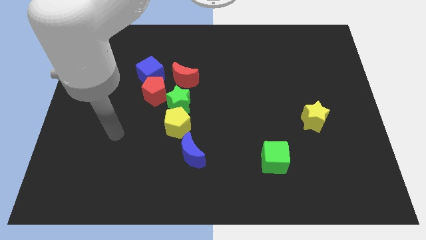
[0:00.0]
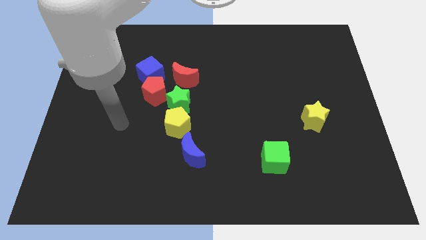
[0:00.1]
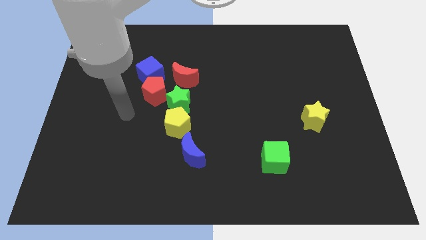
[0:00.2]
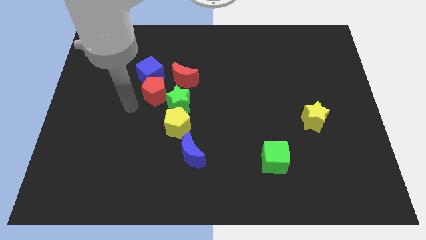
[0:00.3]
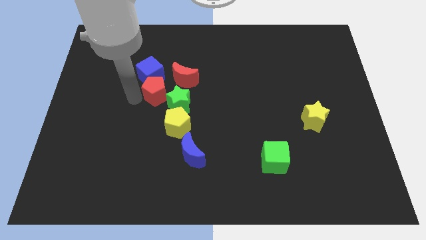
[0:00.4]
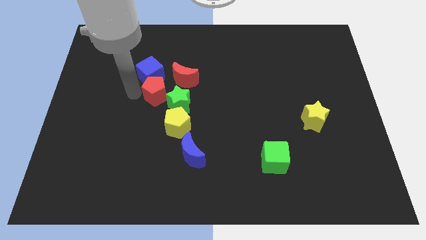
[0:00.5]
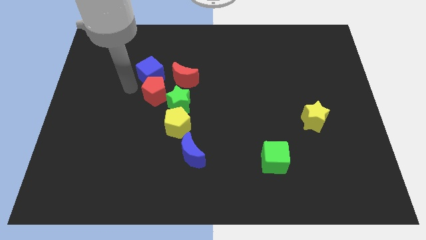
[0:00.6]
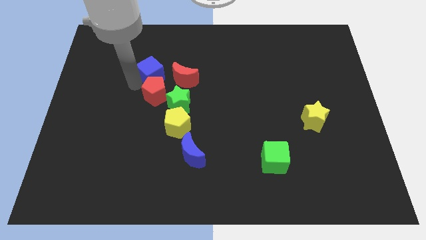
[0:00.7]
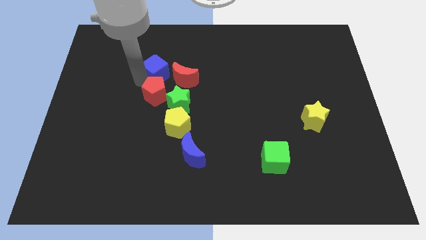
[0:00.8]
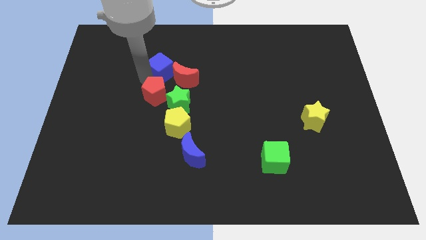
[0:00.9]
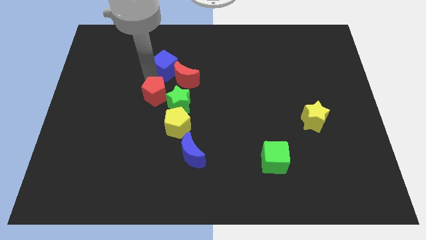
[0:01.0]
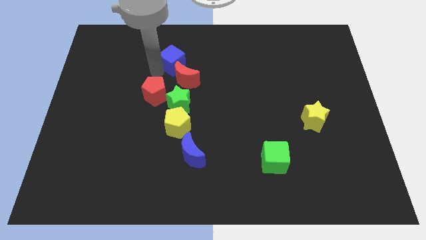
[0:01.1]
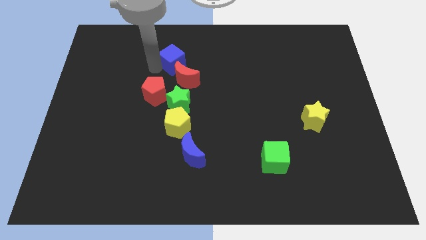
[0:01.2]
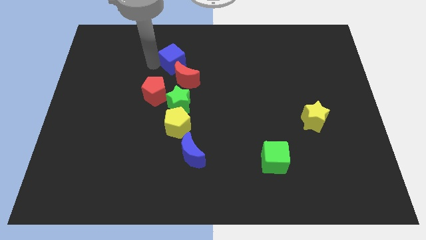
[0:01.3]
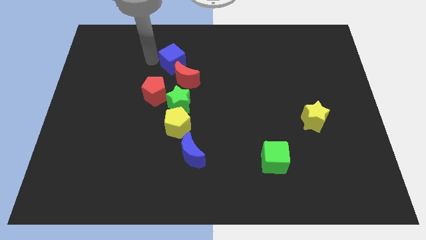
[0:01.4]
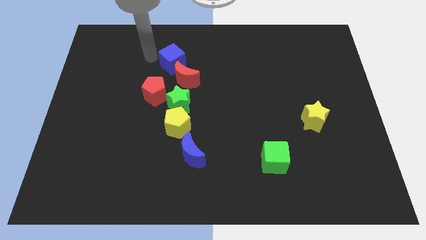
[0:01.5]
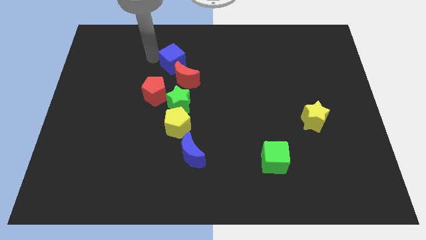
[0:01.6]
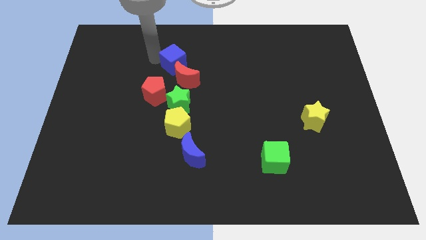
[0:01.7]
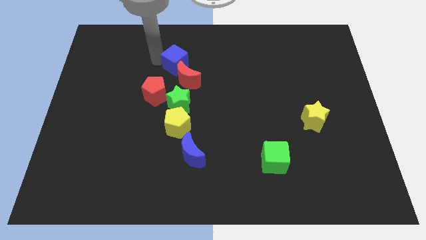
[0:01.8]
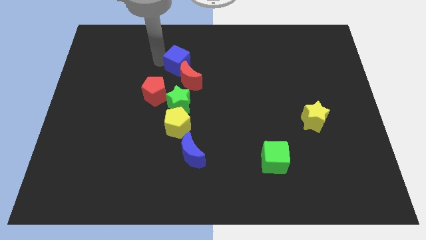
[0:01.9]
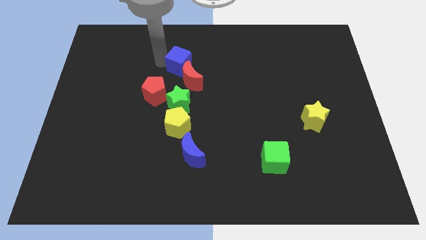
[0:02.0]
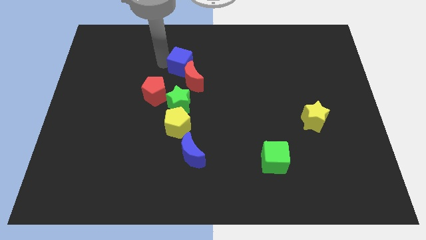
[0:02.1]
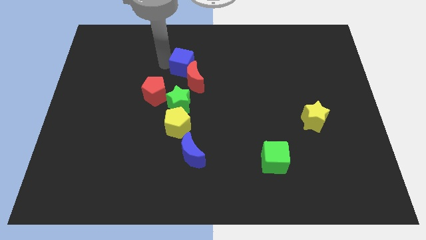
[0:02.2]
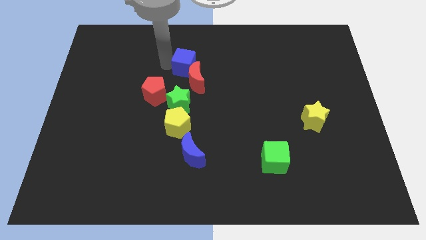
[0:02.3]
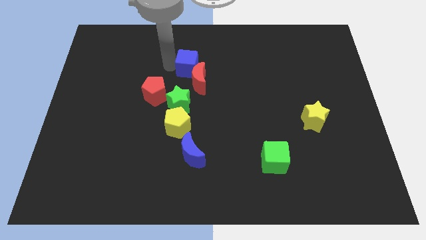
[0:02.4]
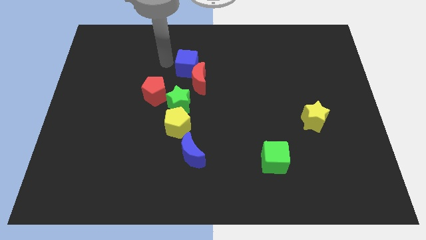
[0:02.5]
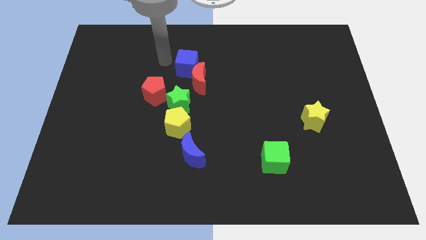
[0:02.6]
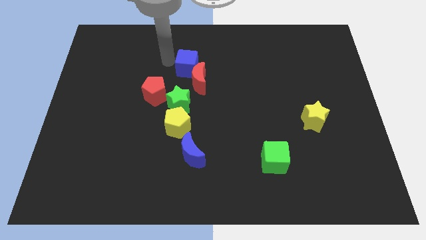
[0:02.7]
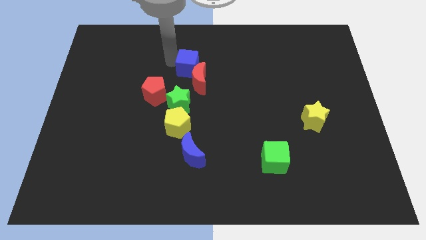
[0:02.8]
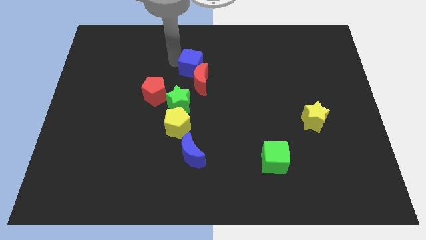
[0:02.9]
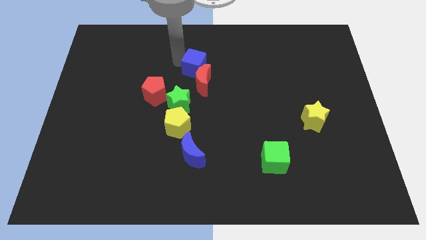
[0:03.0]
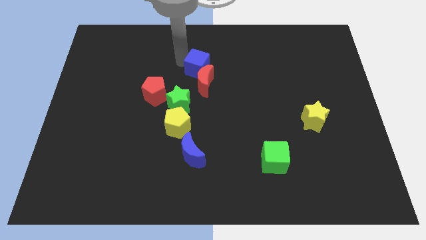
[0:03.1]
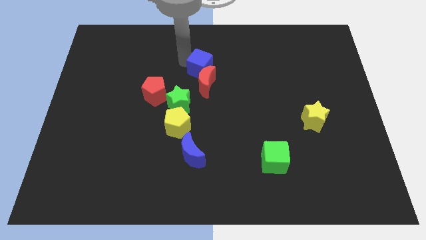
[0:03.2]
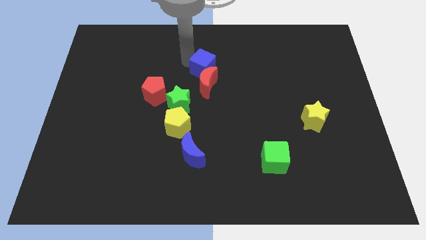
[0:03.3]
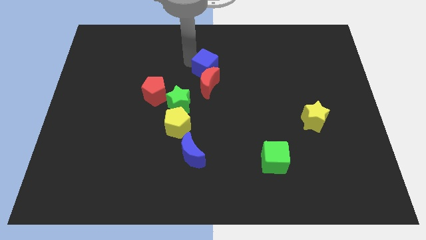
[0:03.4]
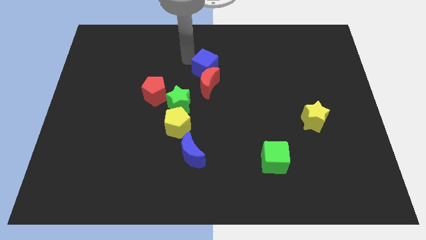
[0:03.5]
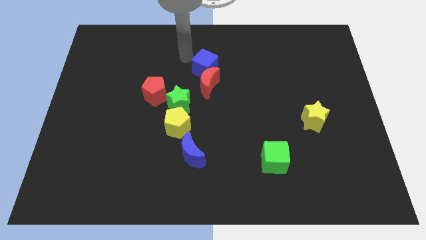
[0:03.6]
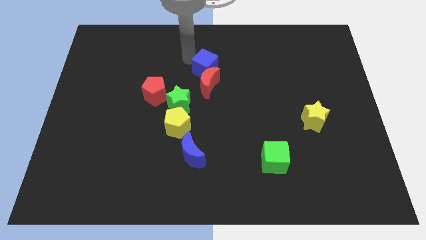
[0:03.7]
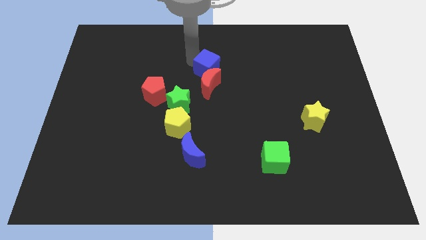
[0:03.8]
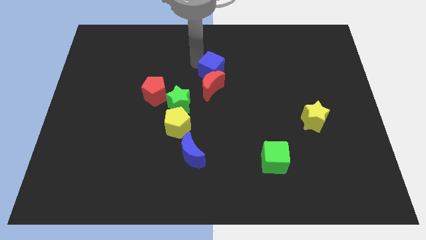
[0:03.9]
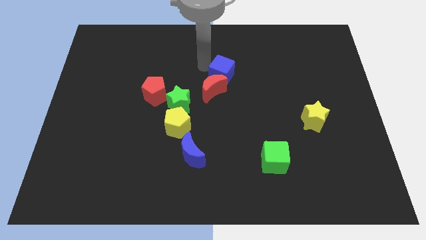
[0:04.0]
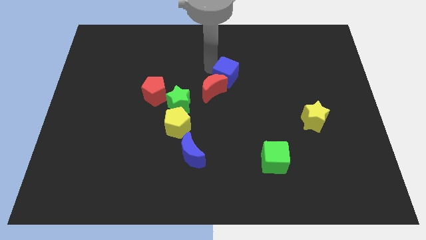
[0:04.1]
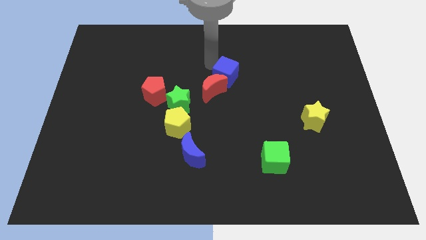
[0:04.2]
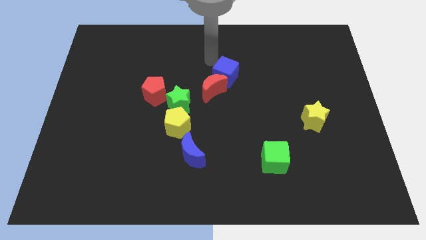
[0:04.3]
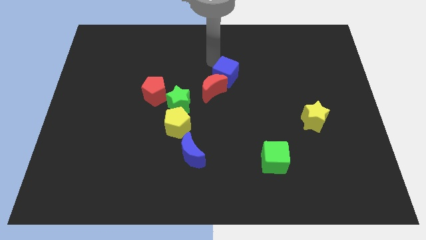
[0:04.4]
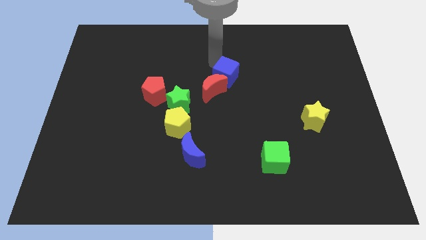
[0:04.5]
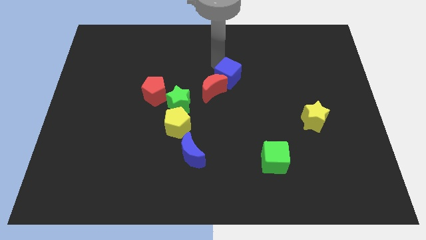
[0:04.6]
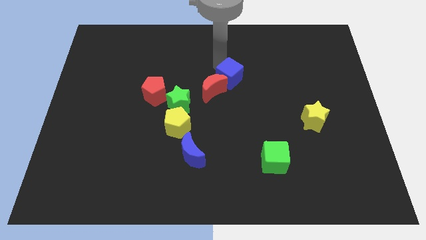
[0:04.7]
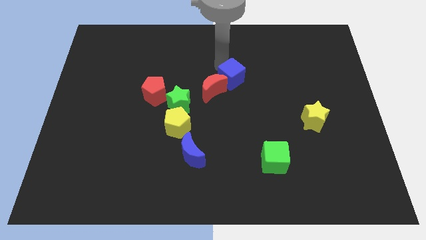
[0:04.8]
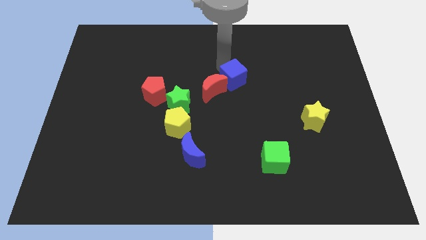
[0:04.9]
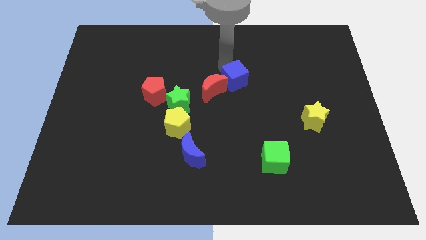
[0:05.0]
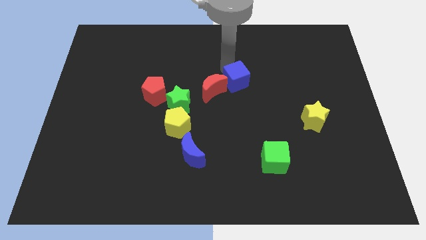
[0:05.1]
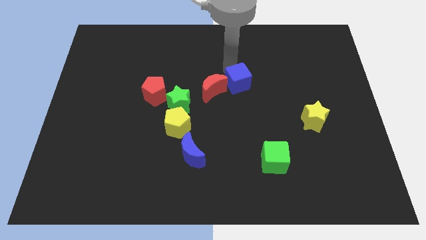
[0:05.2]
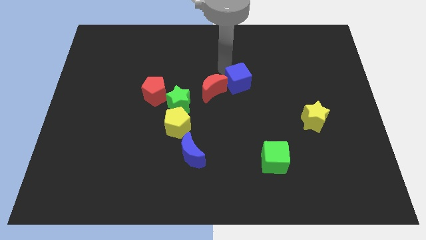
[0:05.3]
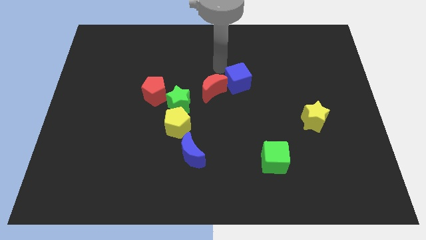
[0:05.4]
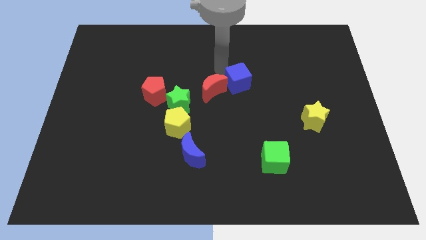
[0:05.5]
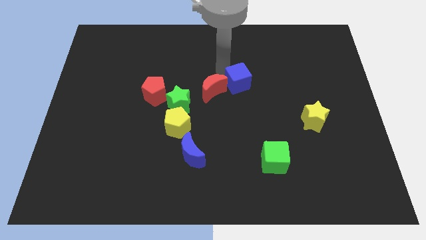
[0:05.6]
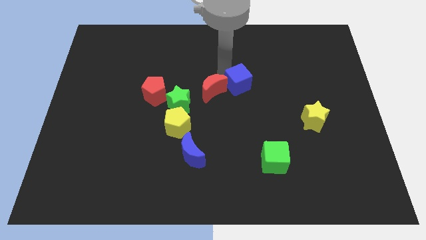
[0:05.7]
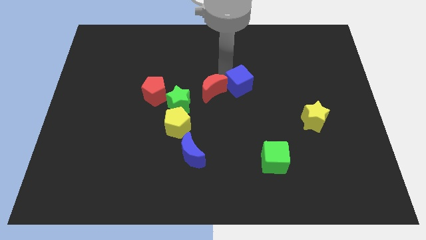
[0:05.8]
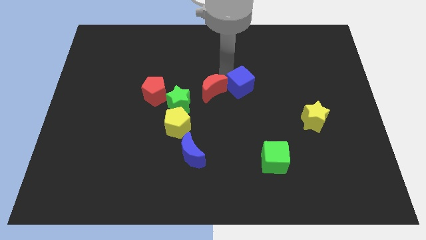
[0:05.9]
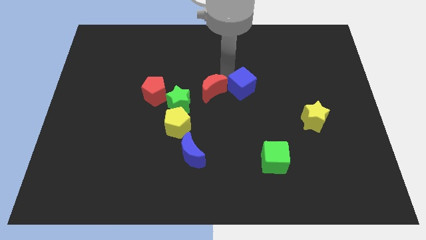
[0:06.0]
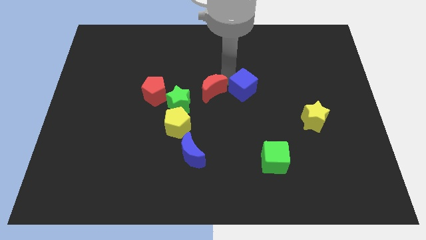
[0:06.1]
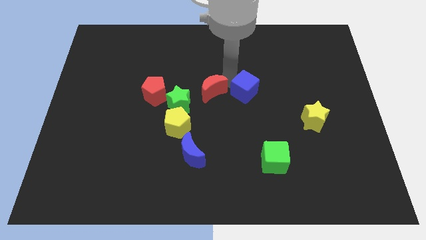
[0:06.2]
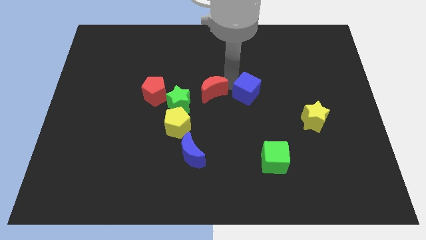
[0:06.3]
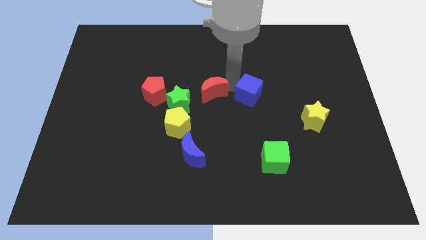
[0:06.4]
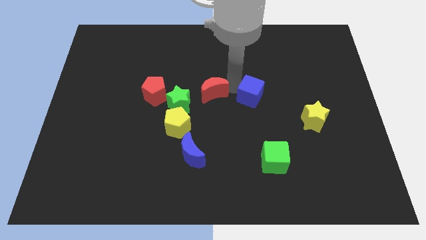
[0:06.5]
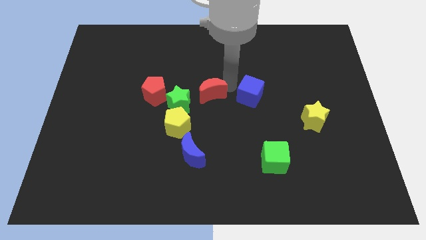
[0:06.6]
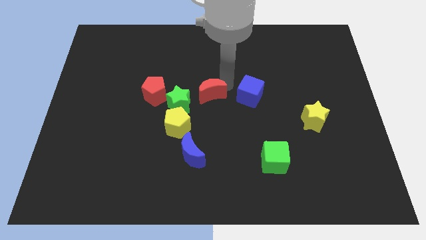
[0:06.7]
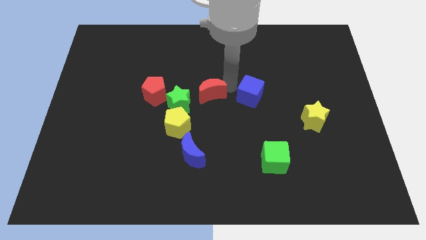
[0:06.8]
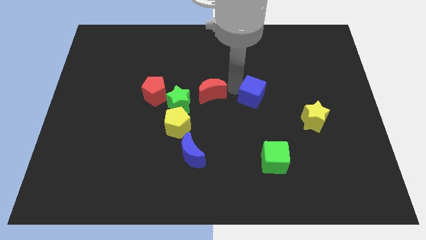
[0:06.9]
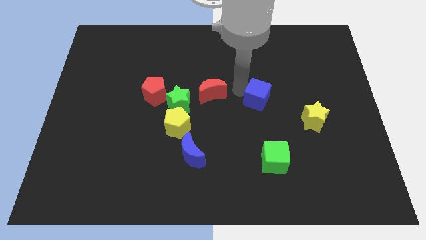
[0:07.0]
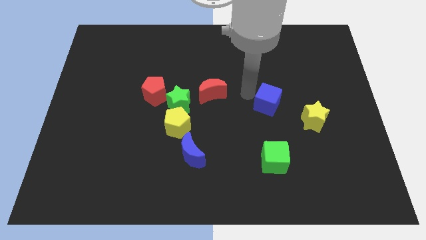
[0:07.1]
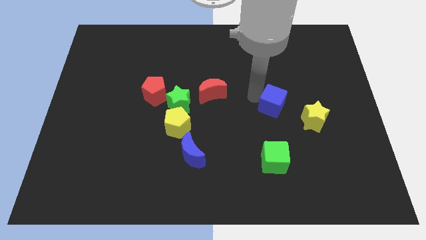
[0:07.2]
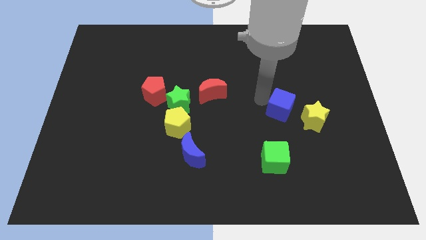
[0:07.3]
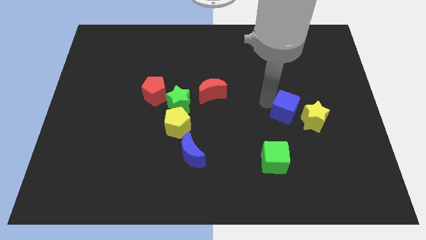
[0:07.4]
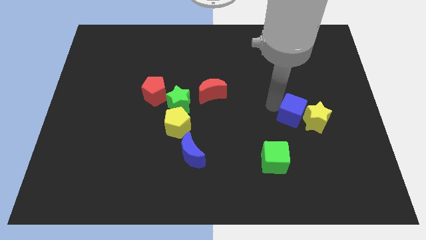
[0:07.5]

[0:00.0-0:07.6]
put the blue cube next to the yellow star
